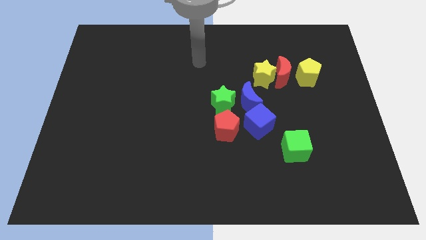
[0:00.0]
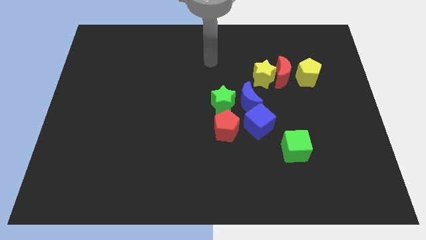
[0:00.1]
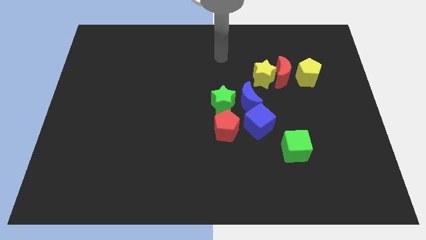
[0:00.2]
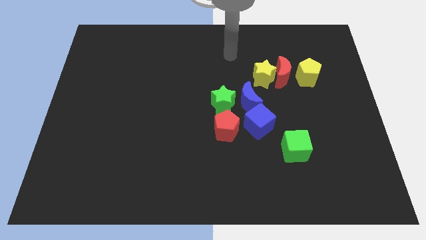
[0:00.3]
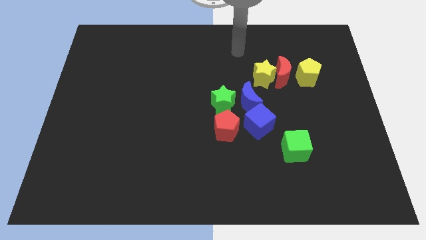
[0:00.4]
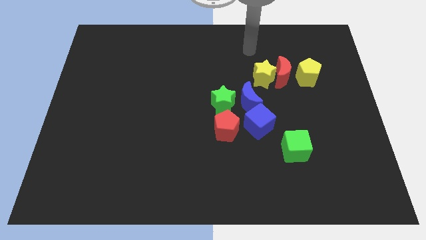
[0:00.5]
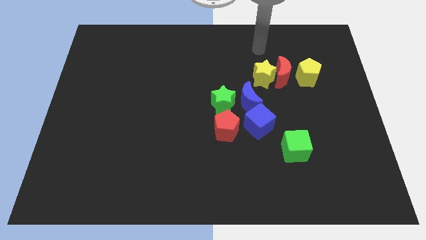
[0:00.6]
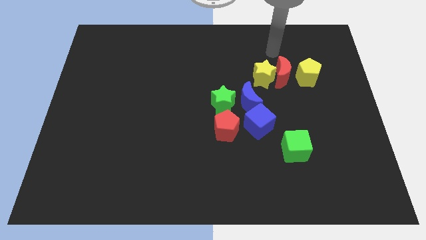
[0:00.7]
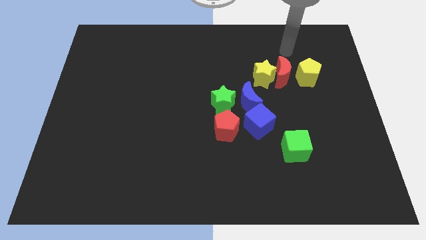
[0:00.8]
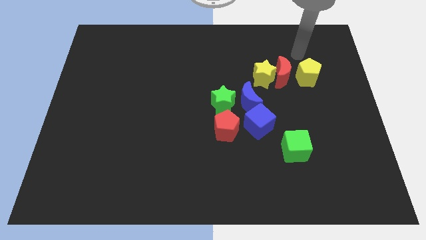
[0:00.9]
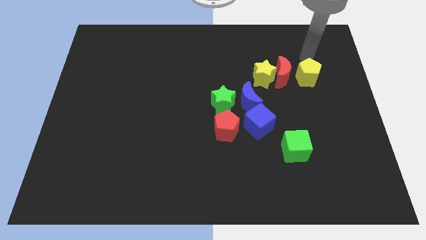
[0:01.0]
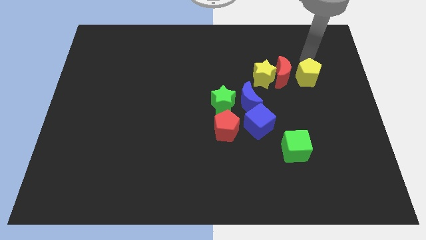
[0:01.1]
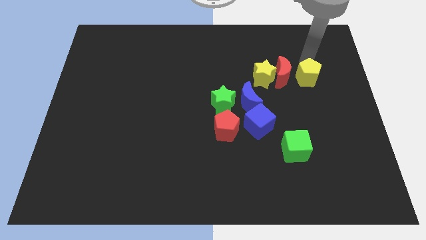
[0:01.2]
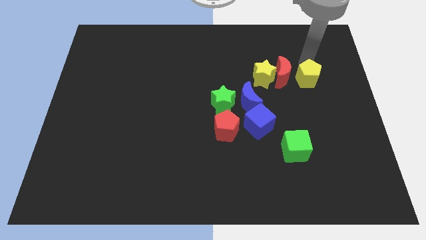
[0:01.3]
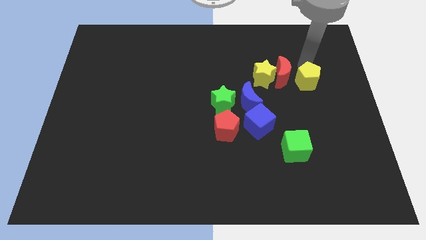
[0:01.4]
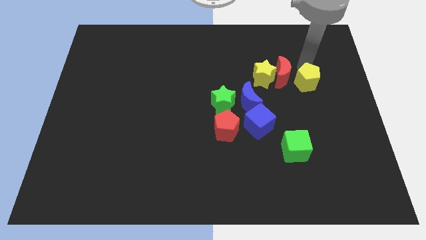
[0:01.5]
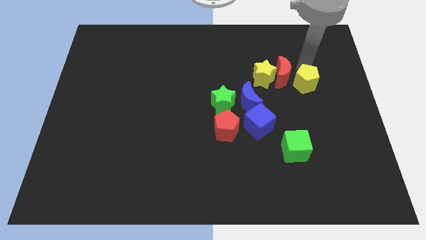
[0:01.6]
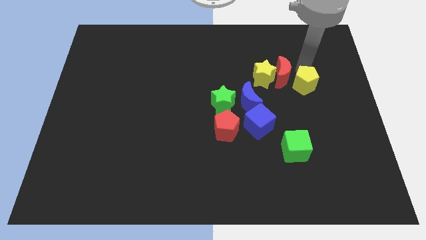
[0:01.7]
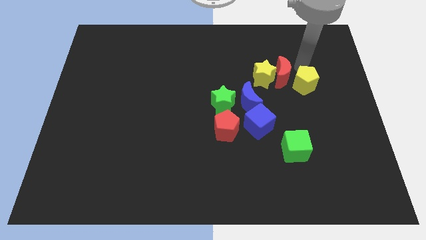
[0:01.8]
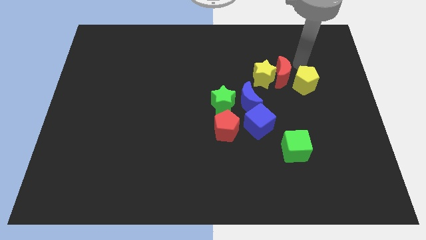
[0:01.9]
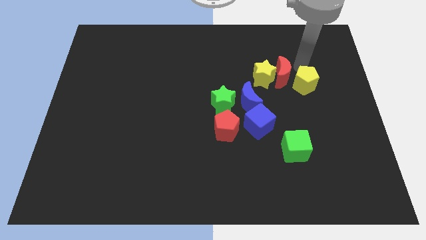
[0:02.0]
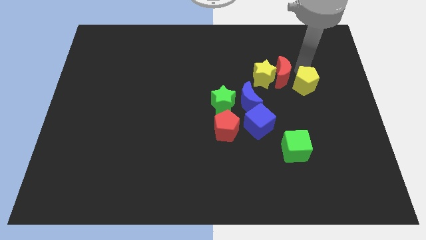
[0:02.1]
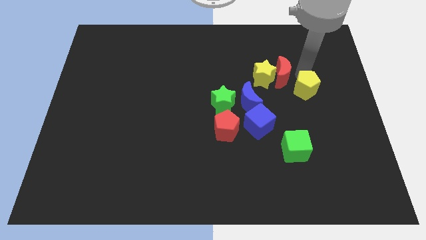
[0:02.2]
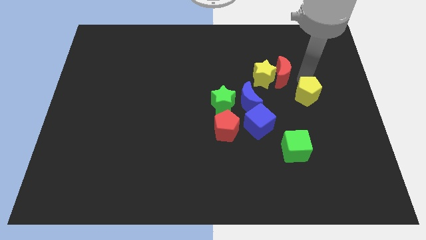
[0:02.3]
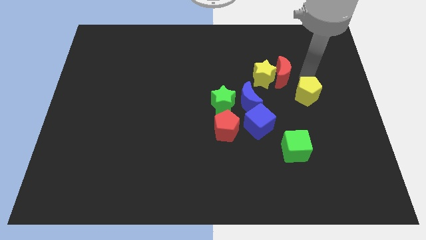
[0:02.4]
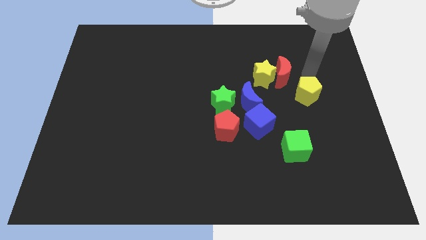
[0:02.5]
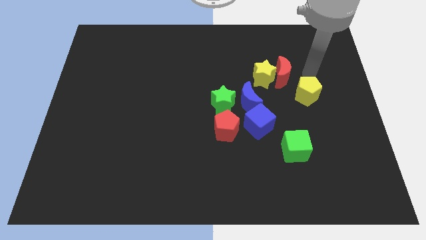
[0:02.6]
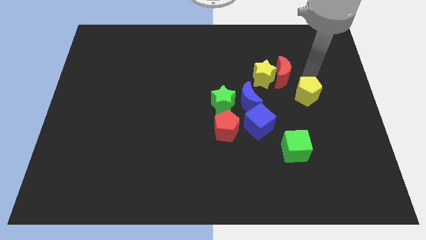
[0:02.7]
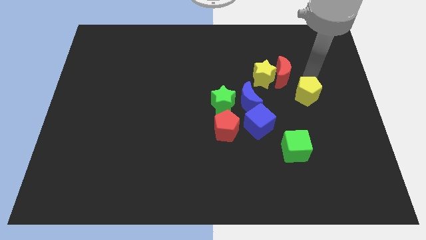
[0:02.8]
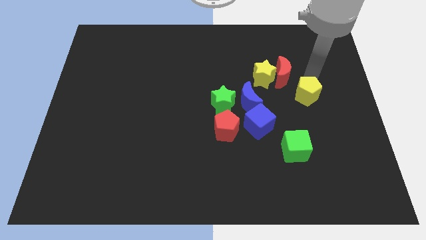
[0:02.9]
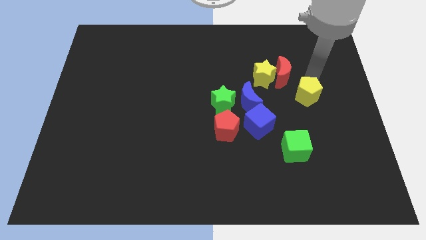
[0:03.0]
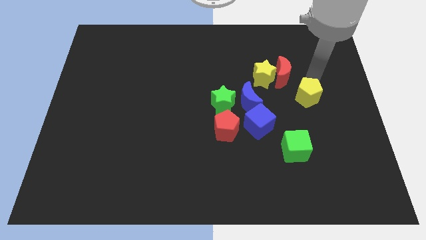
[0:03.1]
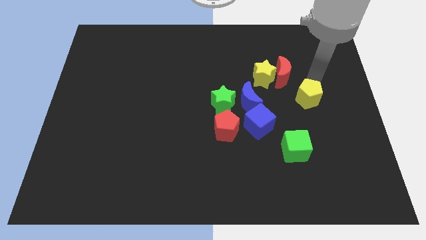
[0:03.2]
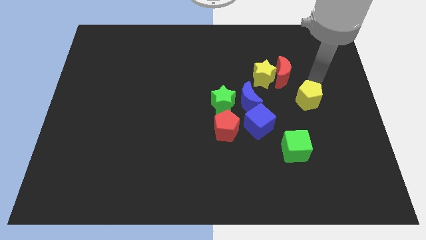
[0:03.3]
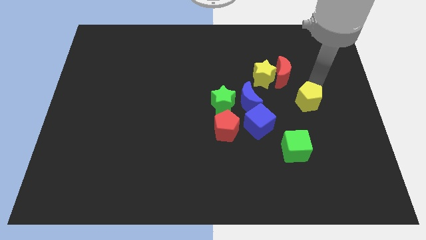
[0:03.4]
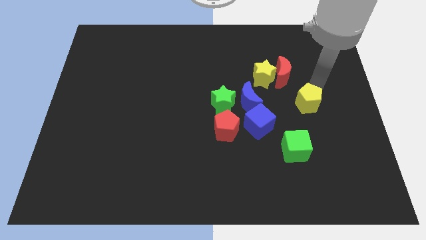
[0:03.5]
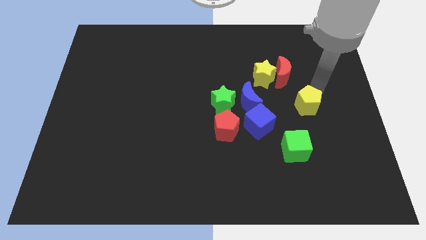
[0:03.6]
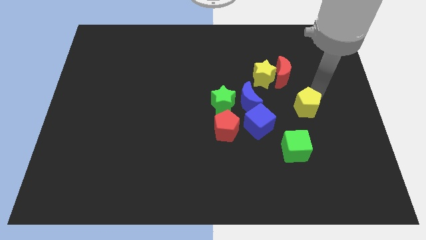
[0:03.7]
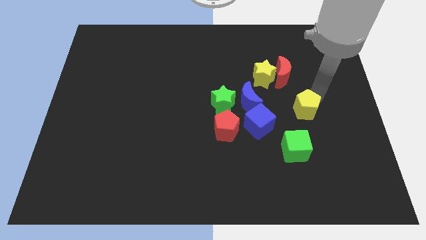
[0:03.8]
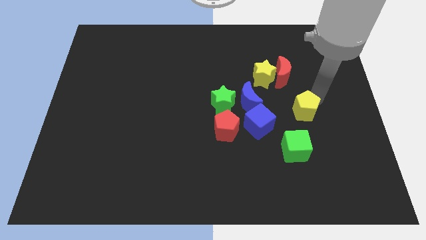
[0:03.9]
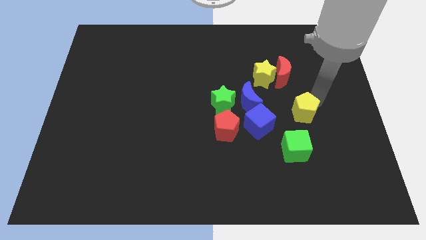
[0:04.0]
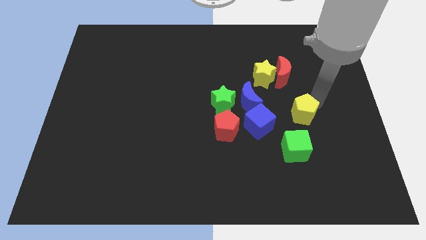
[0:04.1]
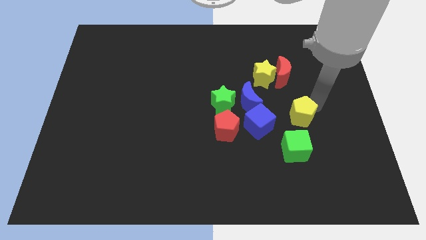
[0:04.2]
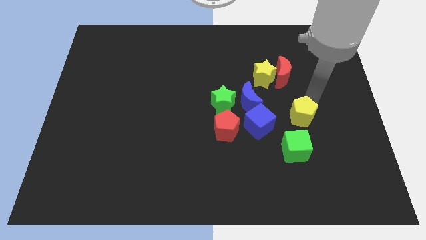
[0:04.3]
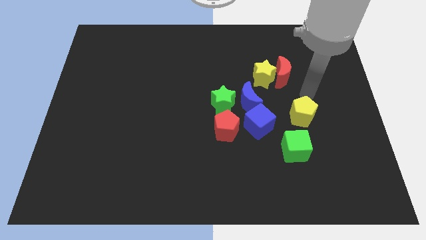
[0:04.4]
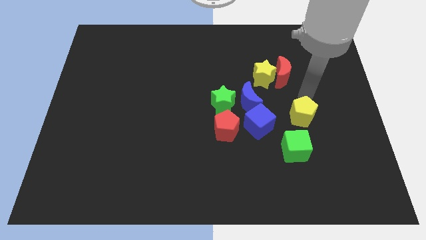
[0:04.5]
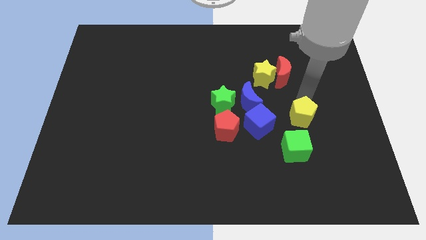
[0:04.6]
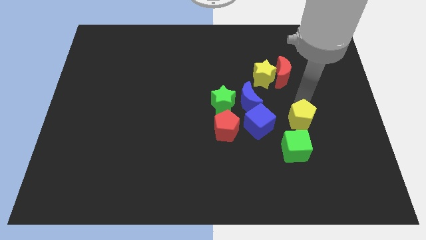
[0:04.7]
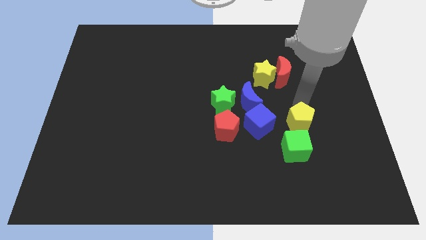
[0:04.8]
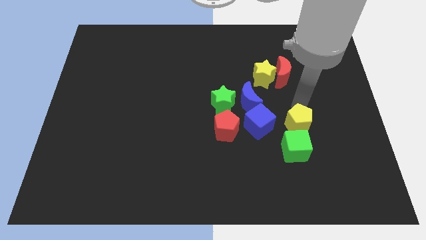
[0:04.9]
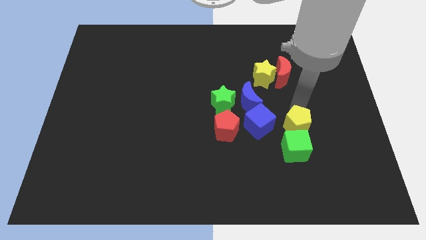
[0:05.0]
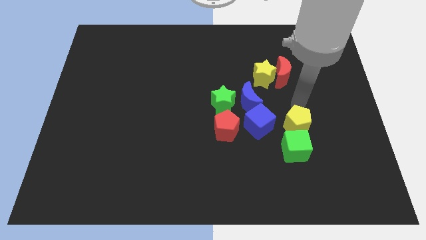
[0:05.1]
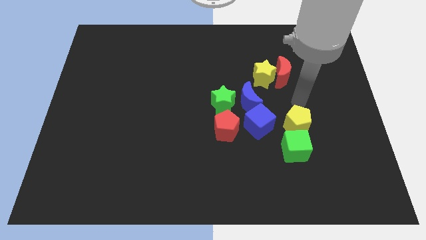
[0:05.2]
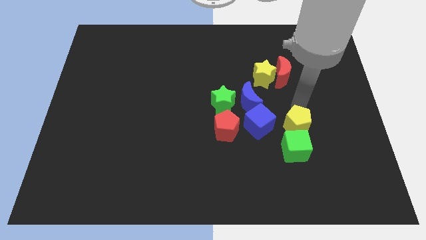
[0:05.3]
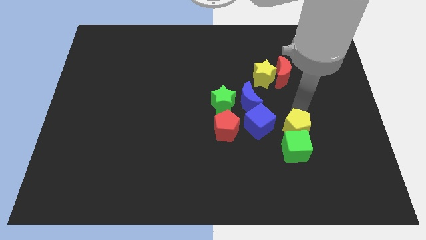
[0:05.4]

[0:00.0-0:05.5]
put the yellow pentagon towards the green cube

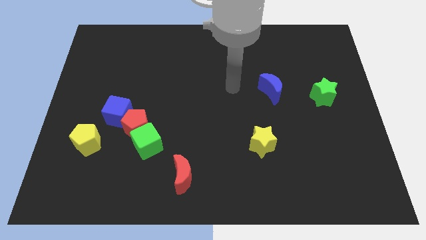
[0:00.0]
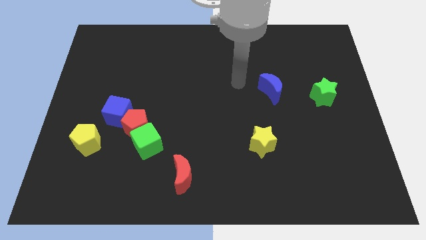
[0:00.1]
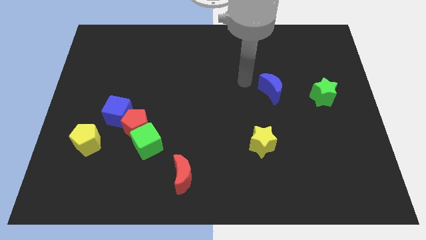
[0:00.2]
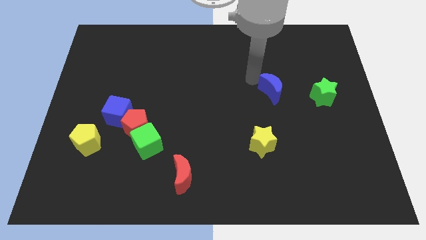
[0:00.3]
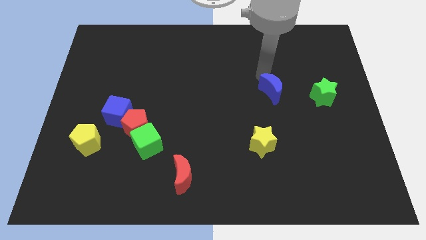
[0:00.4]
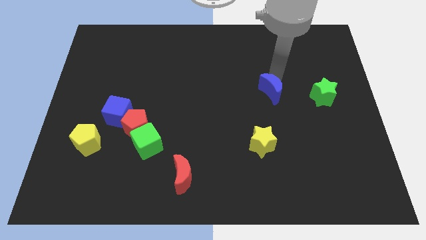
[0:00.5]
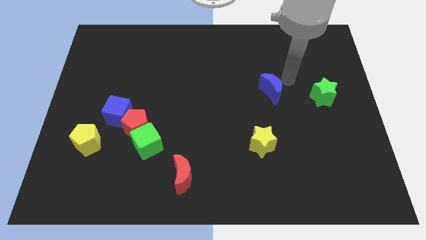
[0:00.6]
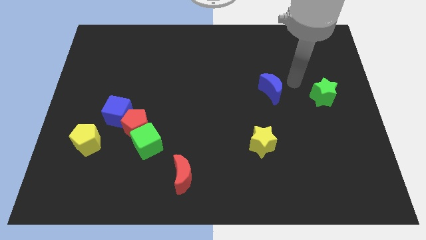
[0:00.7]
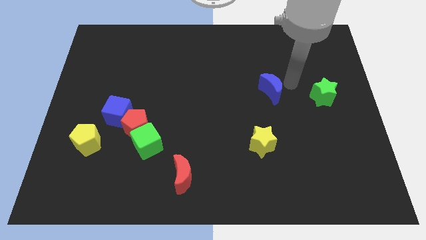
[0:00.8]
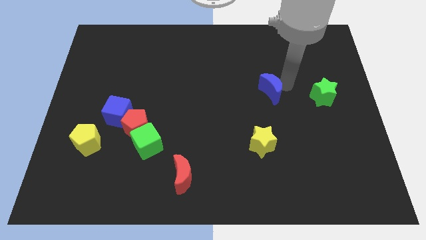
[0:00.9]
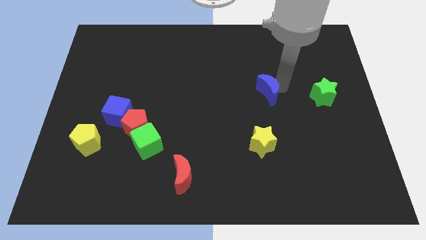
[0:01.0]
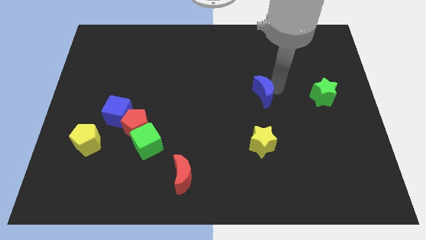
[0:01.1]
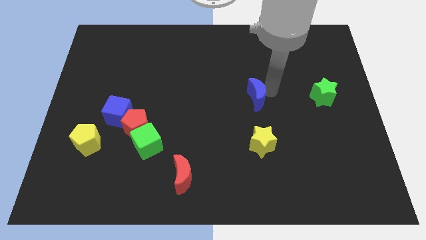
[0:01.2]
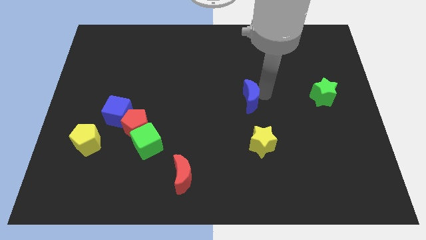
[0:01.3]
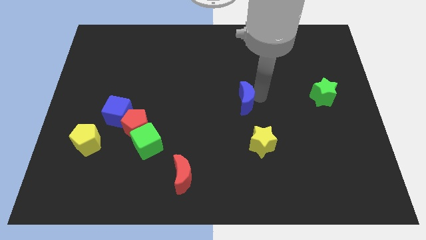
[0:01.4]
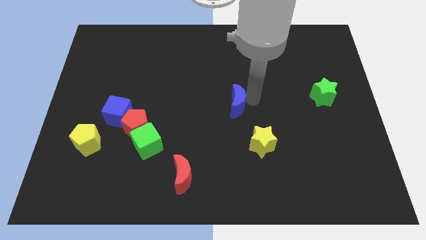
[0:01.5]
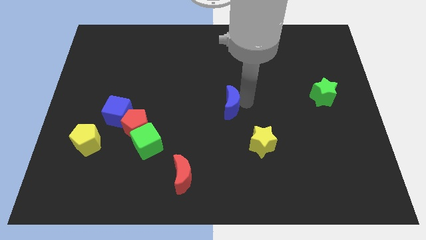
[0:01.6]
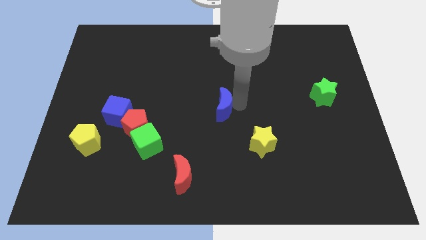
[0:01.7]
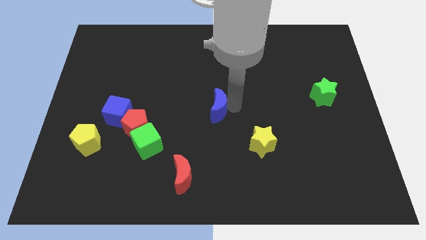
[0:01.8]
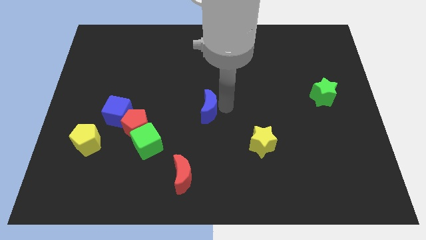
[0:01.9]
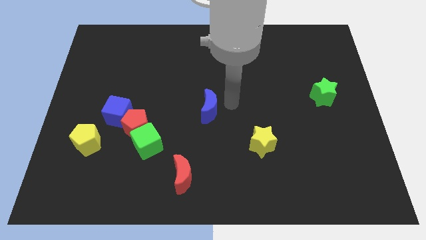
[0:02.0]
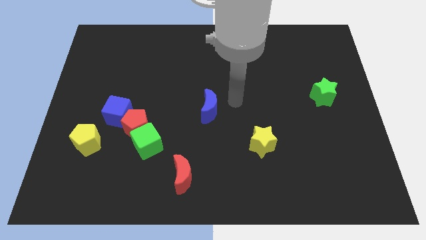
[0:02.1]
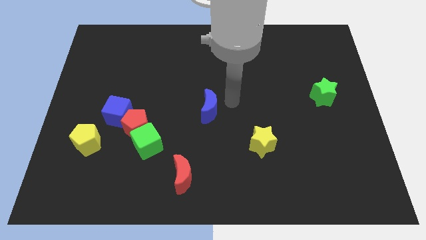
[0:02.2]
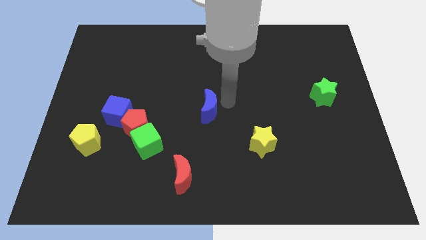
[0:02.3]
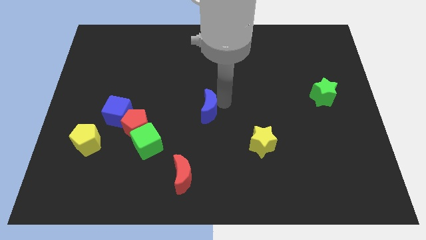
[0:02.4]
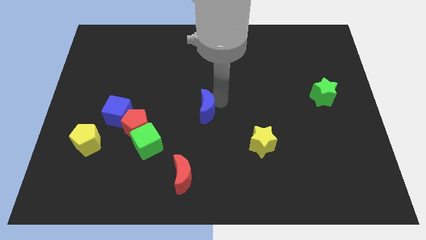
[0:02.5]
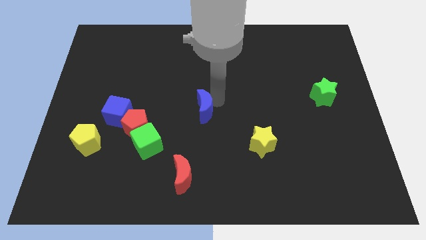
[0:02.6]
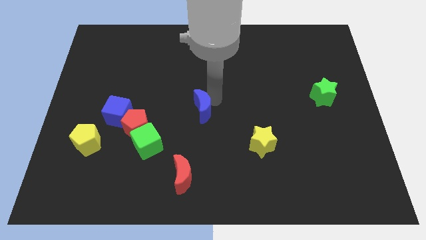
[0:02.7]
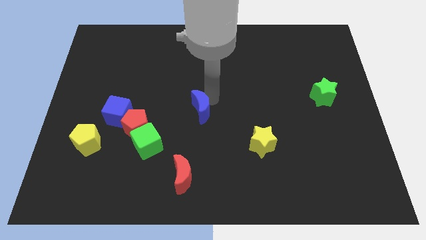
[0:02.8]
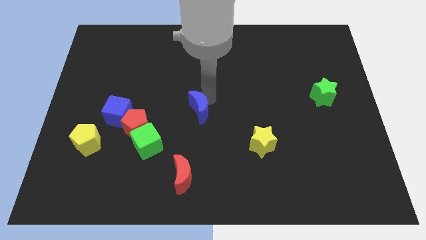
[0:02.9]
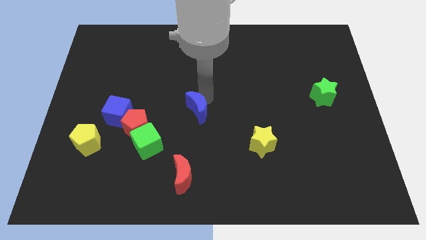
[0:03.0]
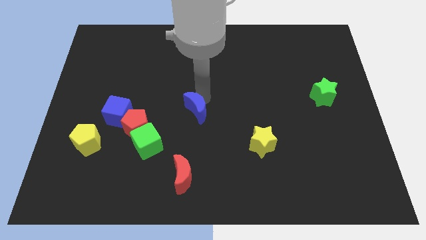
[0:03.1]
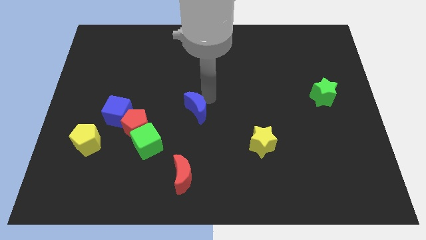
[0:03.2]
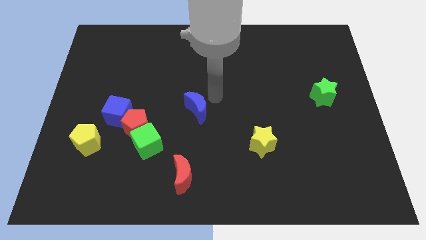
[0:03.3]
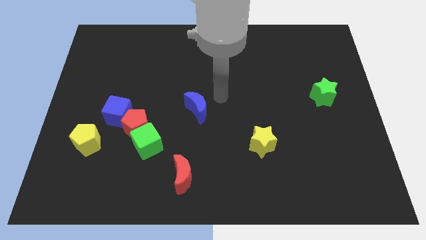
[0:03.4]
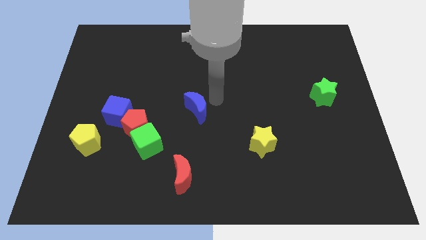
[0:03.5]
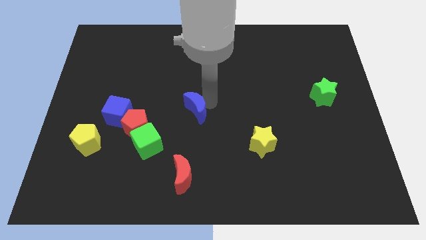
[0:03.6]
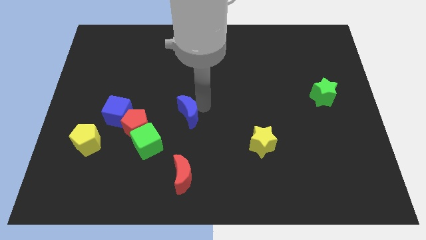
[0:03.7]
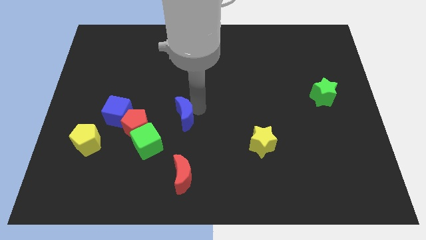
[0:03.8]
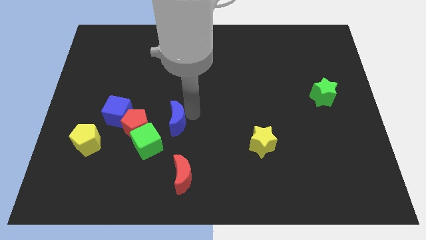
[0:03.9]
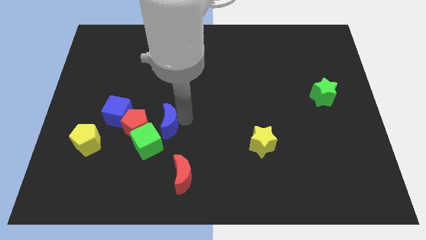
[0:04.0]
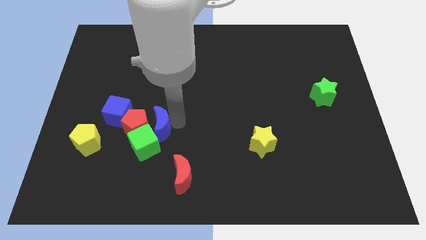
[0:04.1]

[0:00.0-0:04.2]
push the blue moon close to the red pentagon
